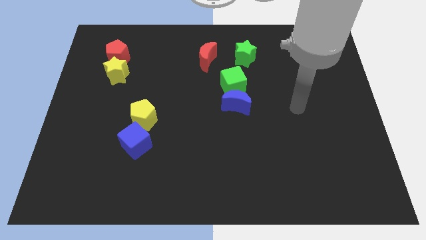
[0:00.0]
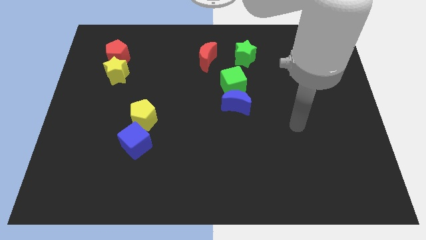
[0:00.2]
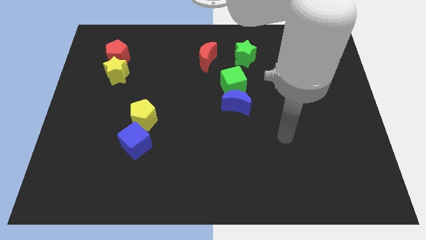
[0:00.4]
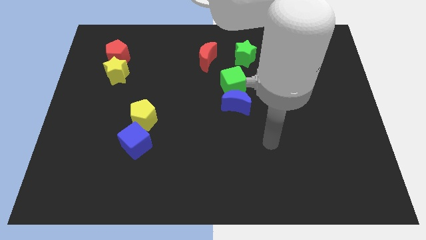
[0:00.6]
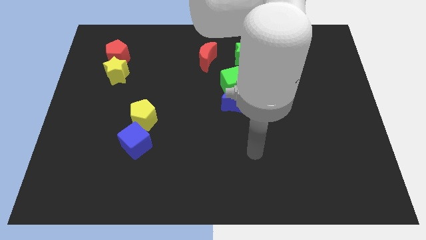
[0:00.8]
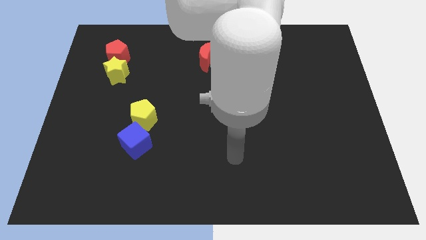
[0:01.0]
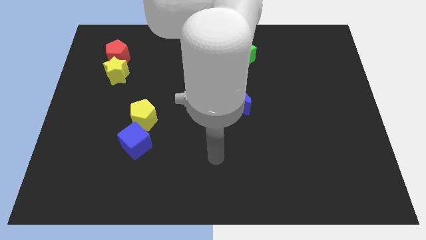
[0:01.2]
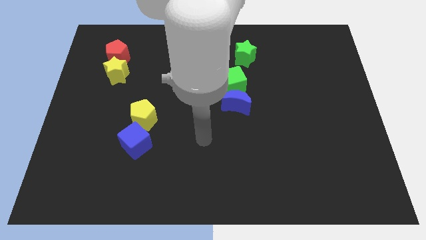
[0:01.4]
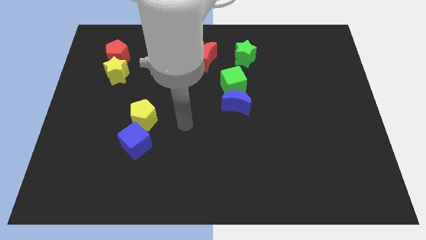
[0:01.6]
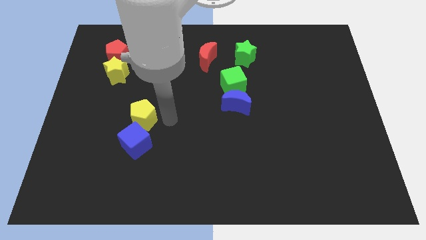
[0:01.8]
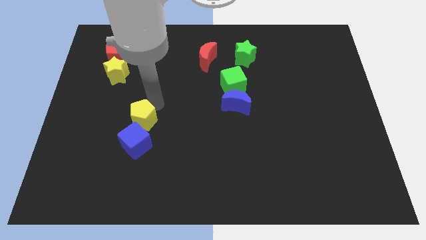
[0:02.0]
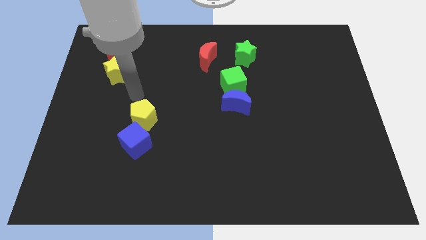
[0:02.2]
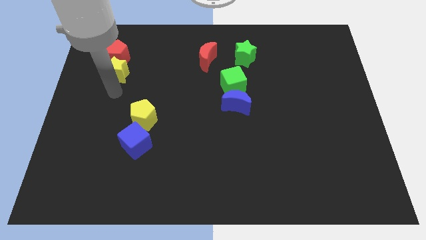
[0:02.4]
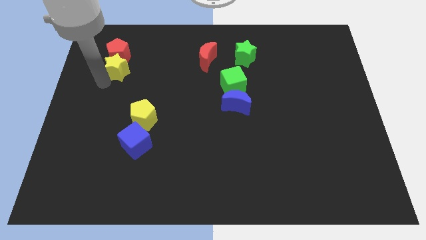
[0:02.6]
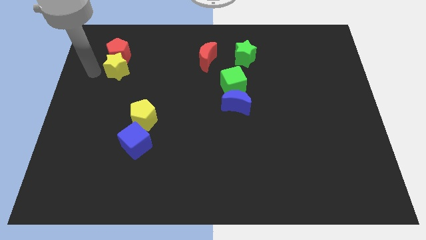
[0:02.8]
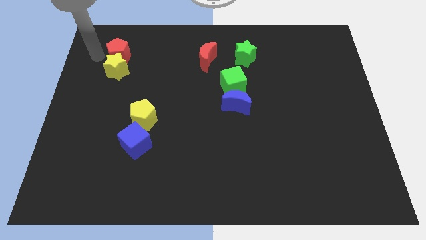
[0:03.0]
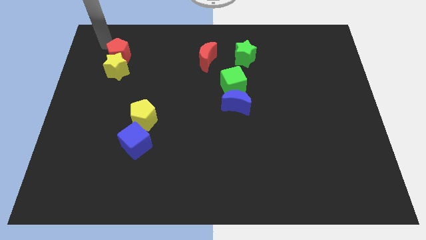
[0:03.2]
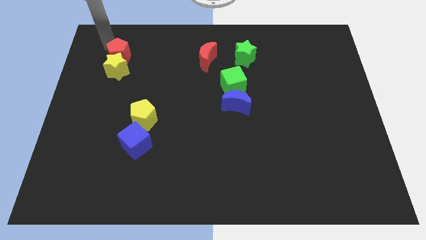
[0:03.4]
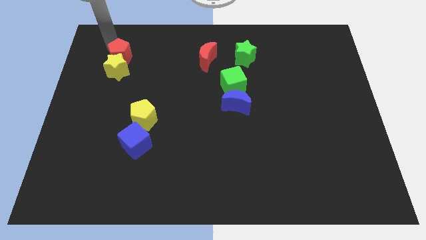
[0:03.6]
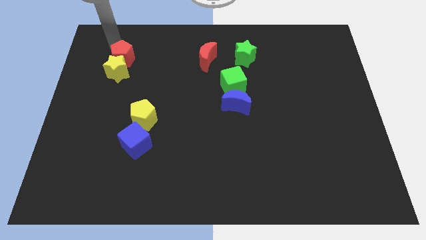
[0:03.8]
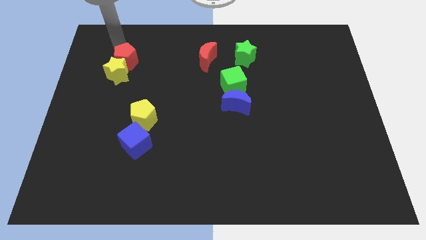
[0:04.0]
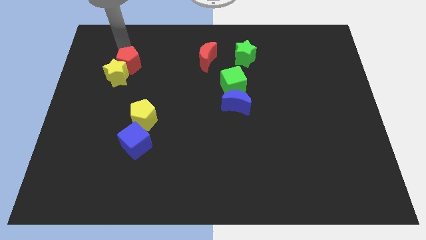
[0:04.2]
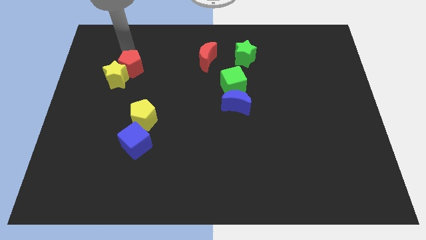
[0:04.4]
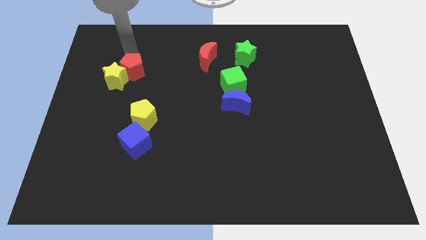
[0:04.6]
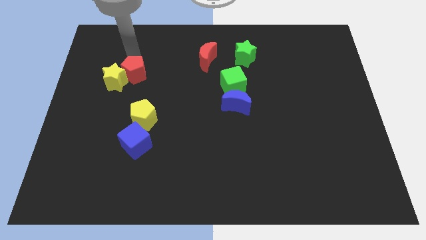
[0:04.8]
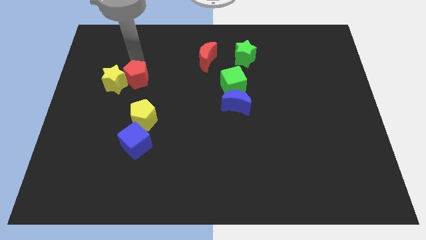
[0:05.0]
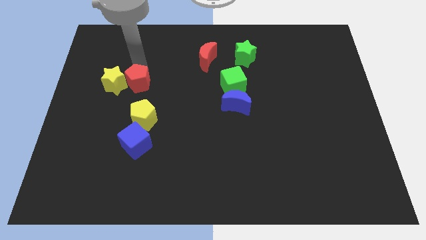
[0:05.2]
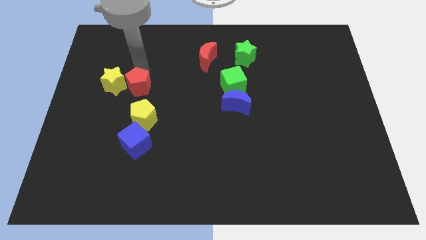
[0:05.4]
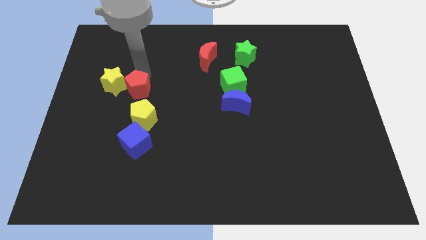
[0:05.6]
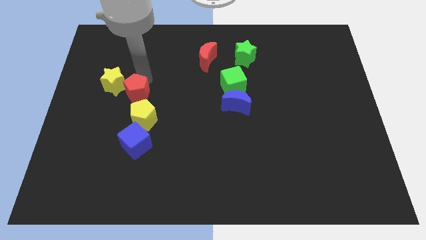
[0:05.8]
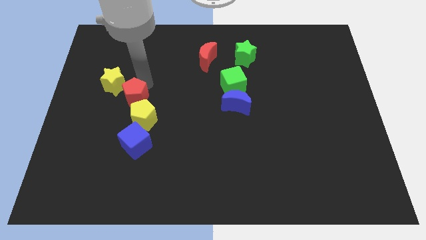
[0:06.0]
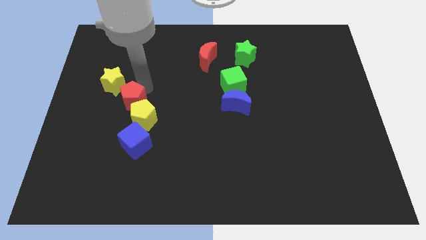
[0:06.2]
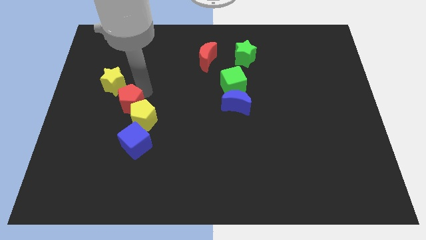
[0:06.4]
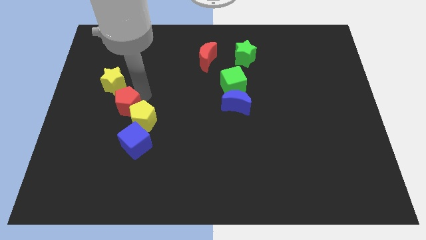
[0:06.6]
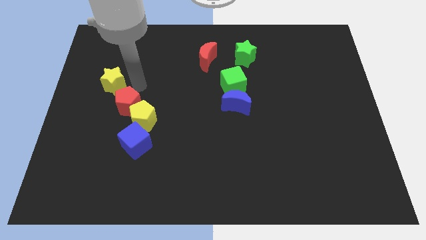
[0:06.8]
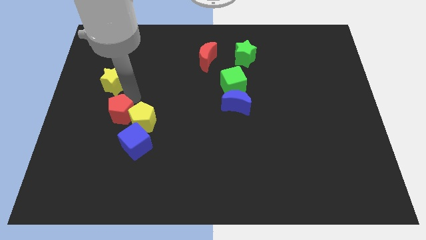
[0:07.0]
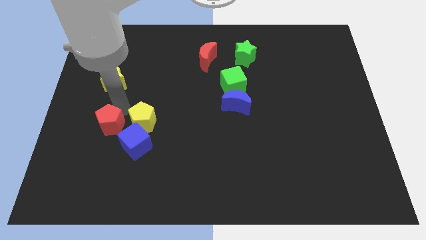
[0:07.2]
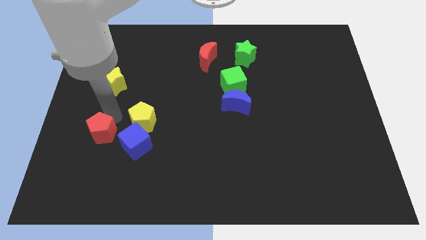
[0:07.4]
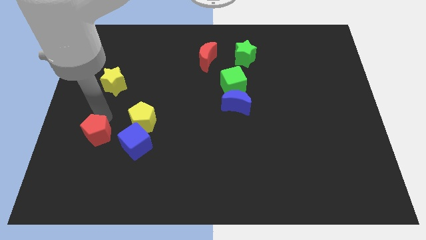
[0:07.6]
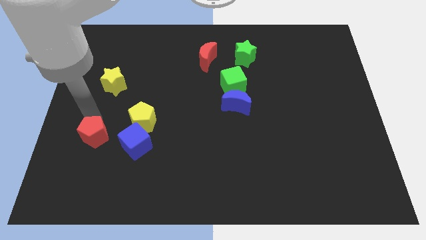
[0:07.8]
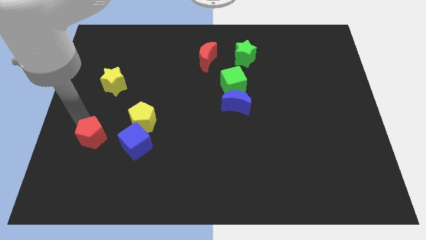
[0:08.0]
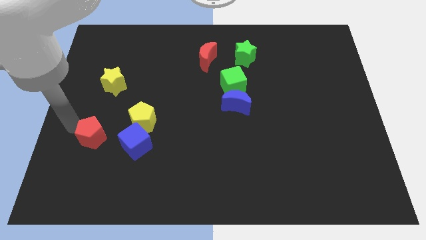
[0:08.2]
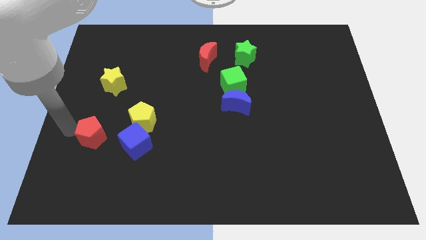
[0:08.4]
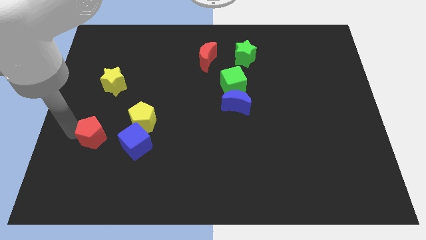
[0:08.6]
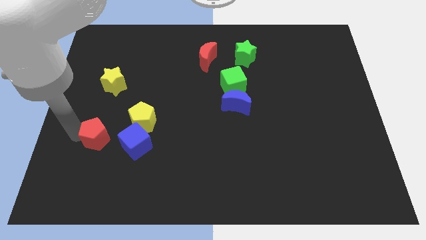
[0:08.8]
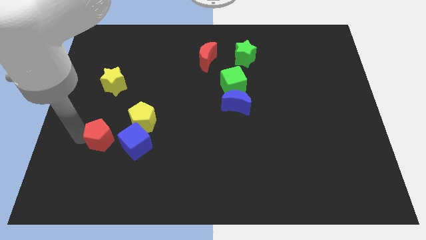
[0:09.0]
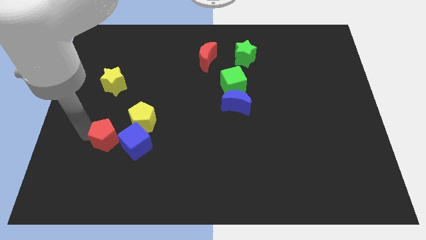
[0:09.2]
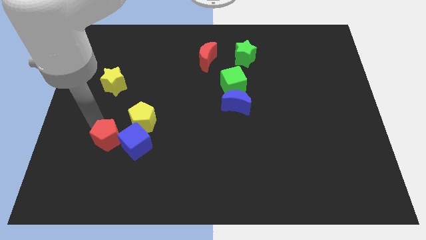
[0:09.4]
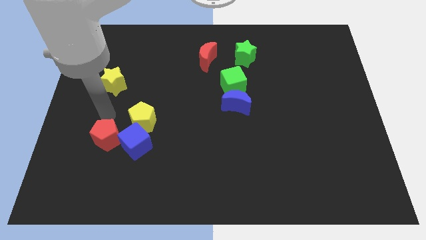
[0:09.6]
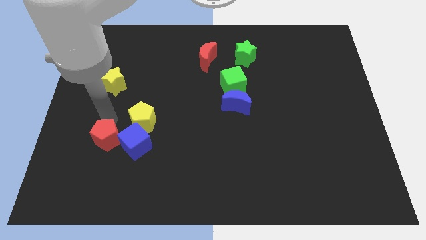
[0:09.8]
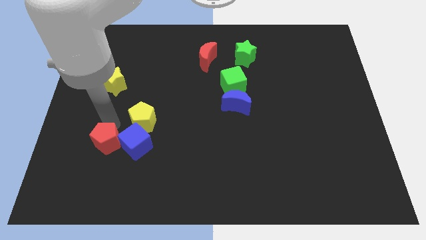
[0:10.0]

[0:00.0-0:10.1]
slide the red pentagon to the bottom left of the blue cube

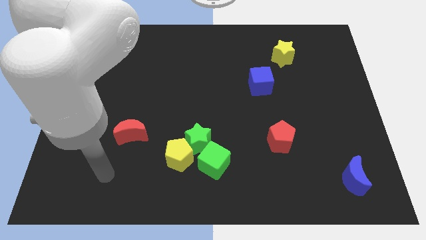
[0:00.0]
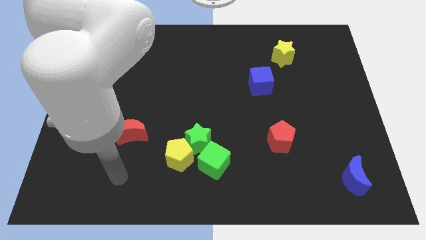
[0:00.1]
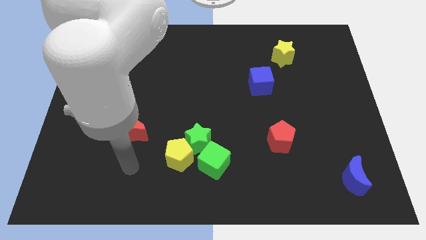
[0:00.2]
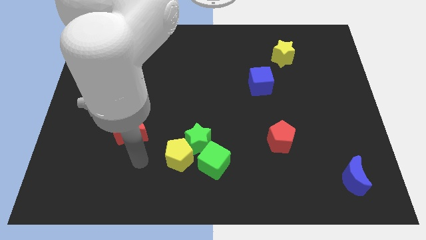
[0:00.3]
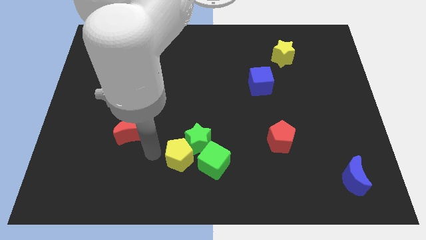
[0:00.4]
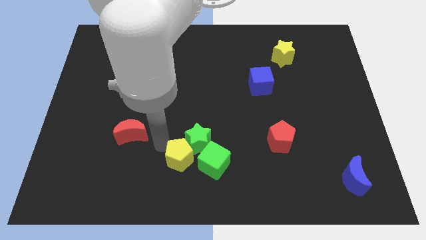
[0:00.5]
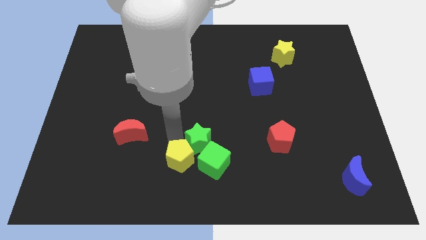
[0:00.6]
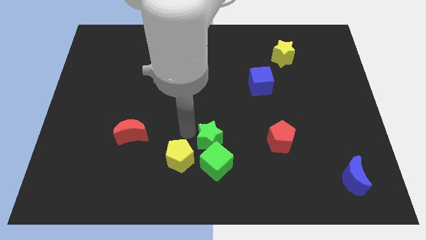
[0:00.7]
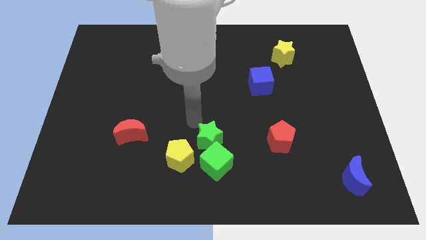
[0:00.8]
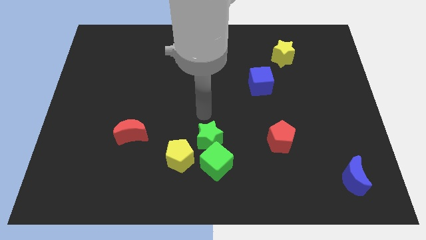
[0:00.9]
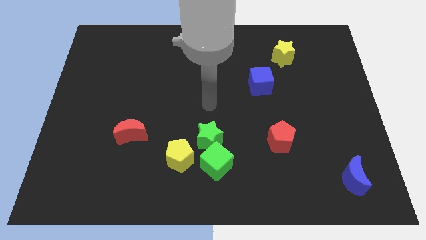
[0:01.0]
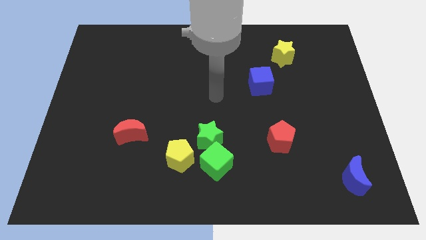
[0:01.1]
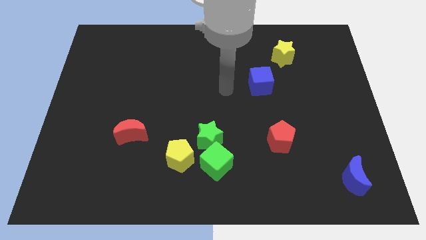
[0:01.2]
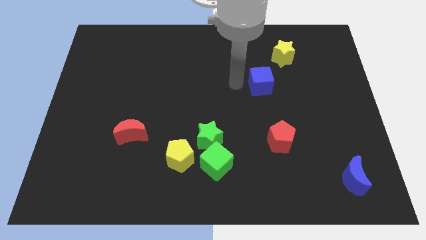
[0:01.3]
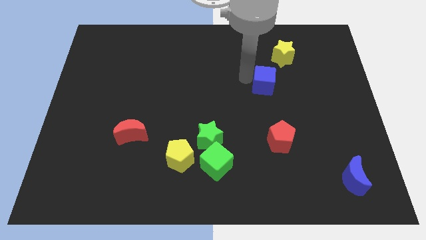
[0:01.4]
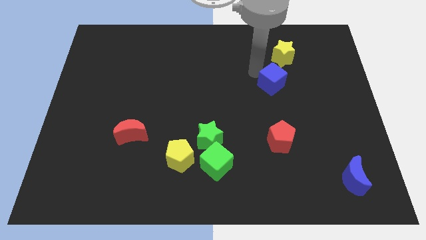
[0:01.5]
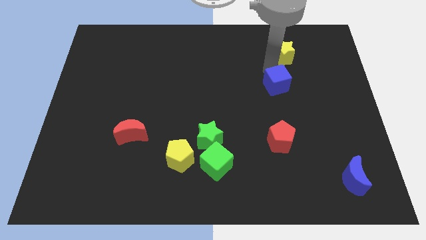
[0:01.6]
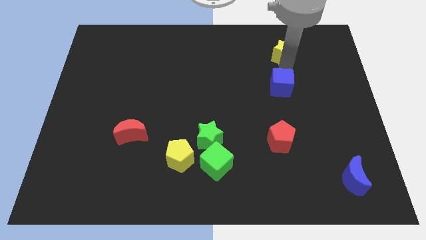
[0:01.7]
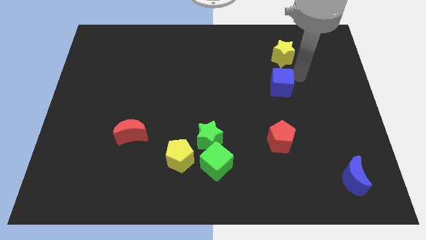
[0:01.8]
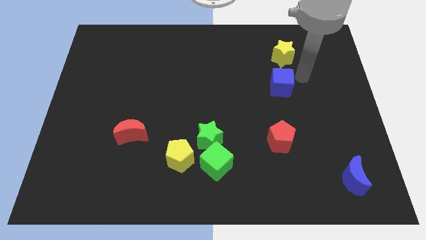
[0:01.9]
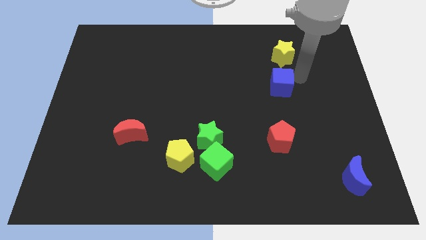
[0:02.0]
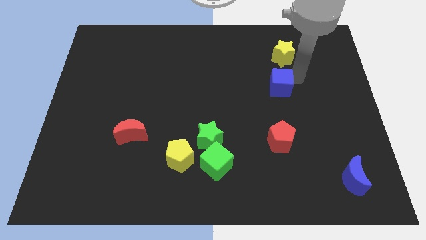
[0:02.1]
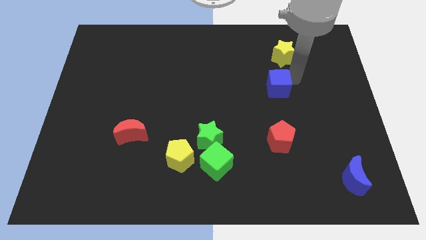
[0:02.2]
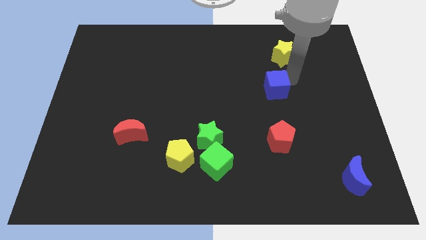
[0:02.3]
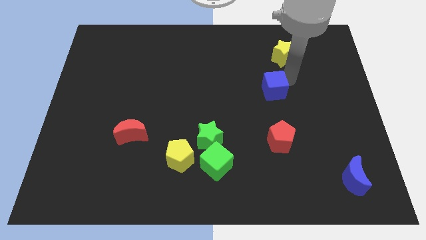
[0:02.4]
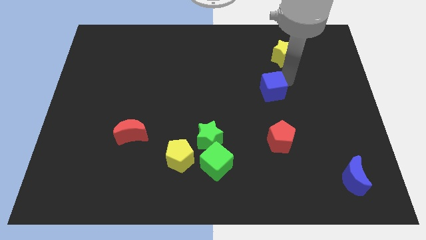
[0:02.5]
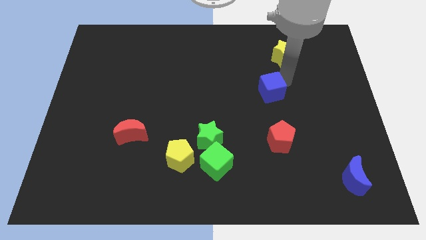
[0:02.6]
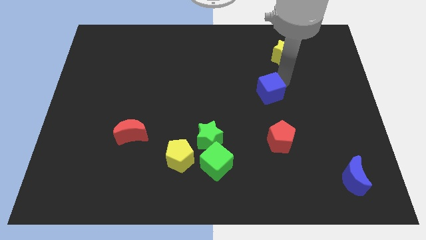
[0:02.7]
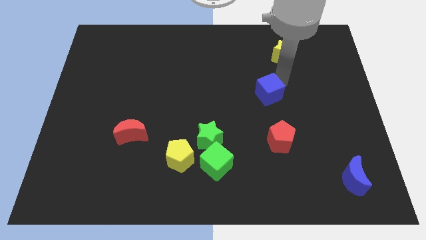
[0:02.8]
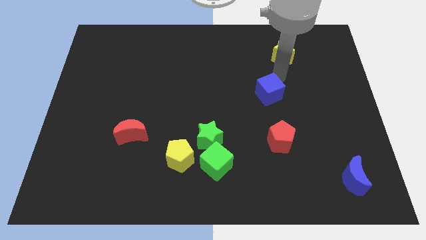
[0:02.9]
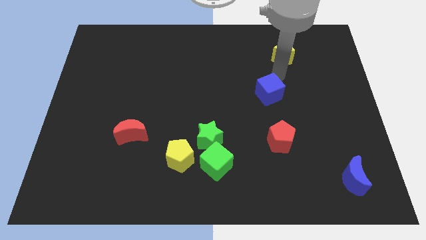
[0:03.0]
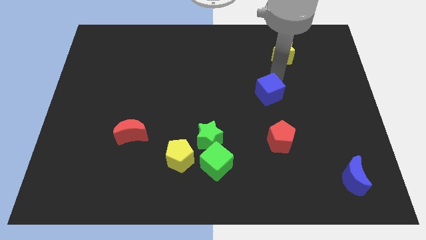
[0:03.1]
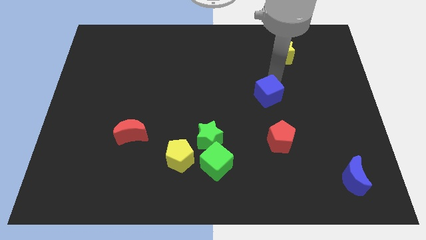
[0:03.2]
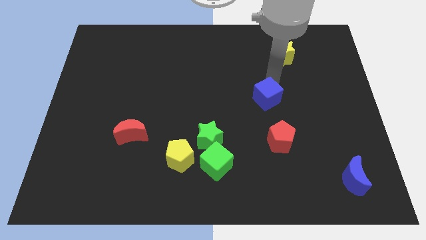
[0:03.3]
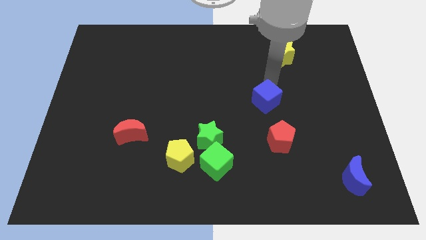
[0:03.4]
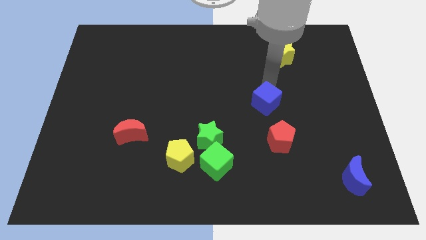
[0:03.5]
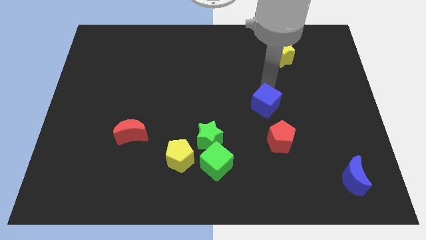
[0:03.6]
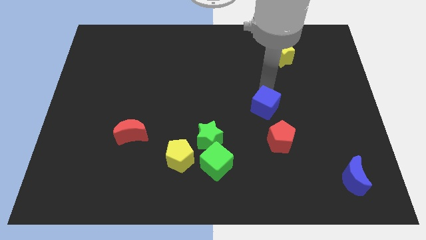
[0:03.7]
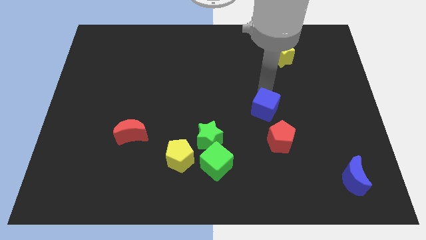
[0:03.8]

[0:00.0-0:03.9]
slide the blue cube diagonally up and to the left of the red pentagon
